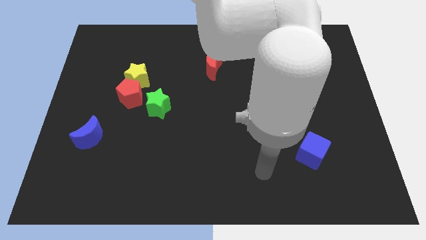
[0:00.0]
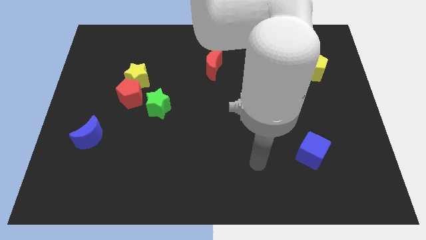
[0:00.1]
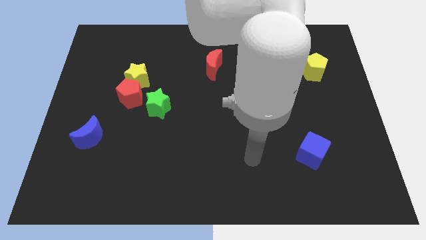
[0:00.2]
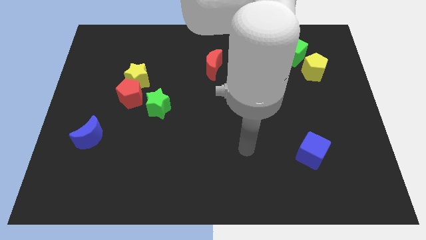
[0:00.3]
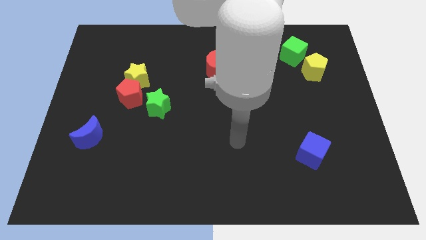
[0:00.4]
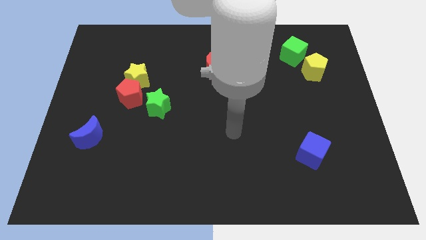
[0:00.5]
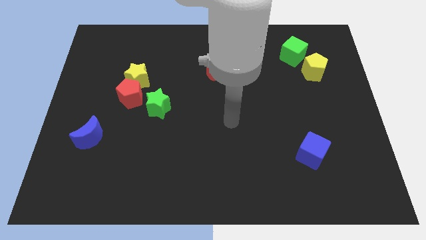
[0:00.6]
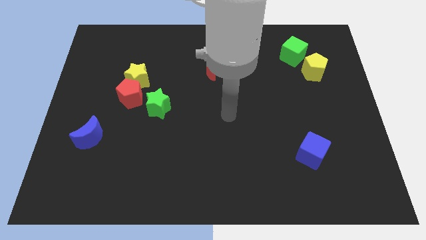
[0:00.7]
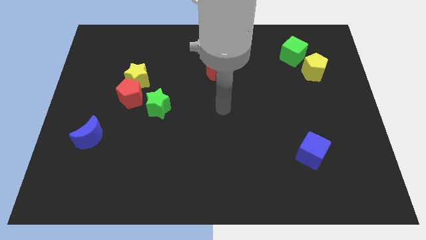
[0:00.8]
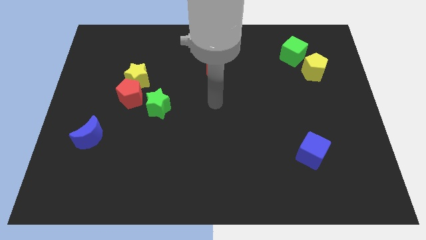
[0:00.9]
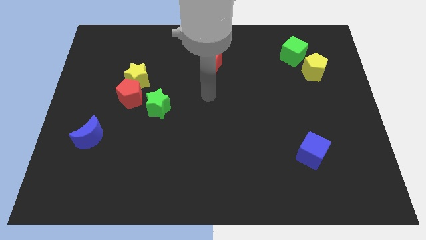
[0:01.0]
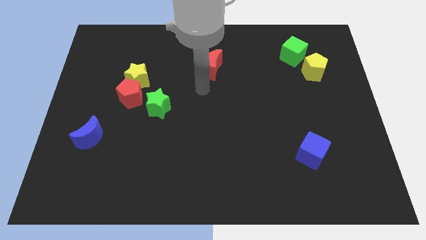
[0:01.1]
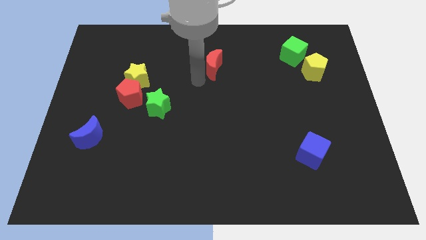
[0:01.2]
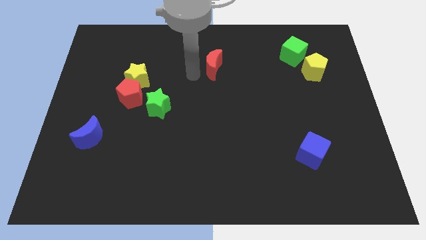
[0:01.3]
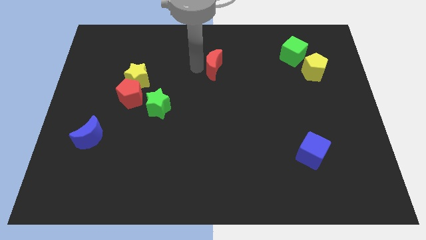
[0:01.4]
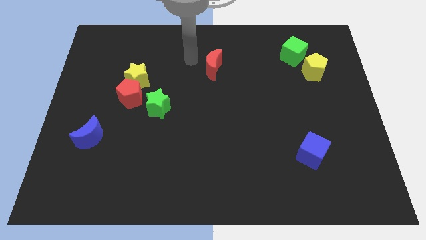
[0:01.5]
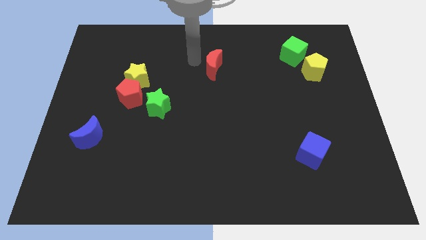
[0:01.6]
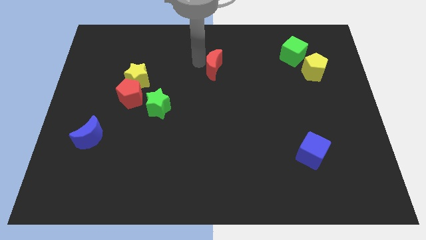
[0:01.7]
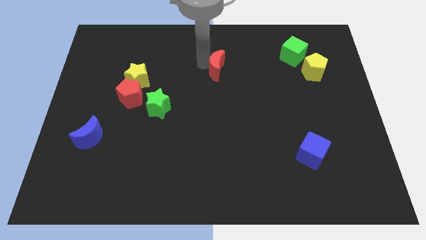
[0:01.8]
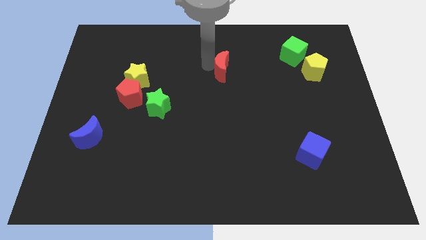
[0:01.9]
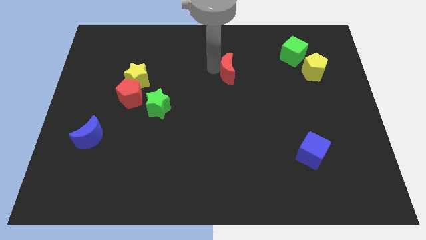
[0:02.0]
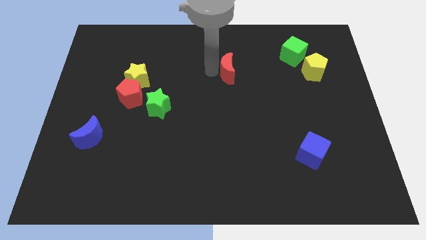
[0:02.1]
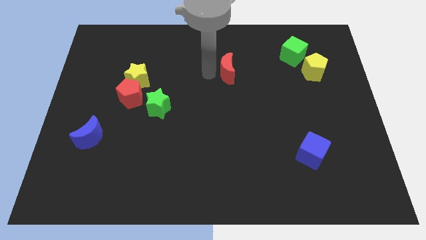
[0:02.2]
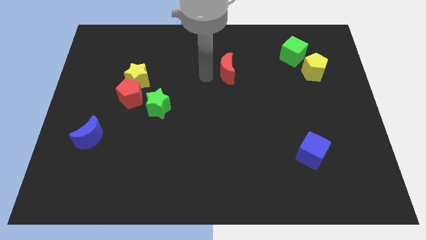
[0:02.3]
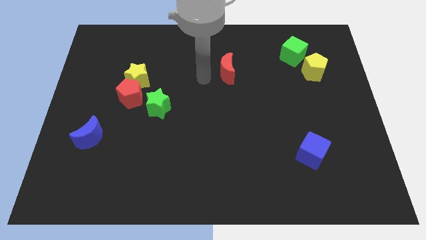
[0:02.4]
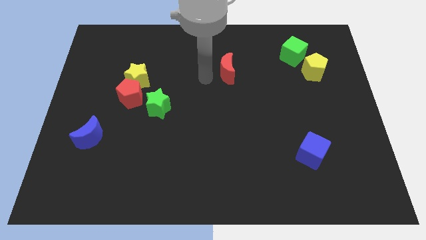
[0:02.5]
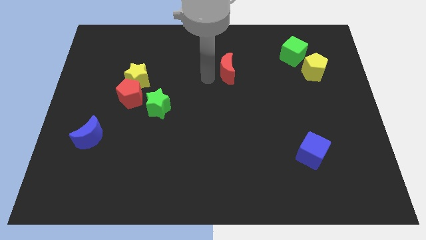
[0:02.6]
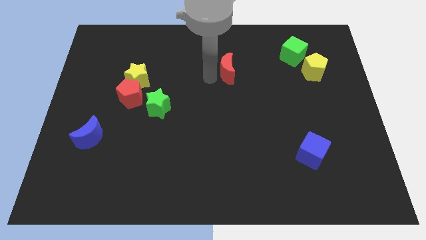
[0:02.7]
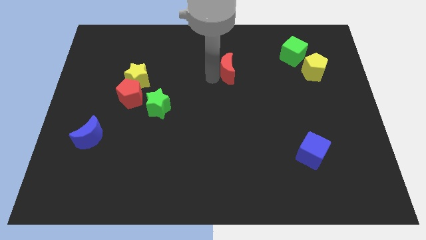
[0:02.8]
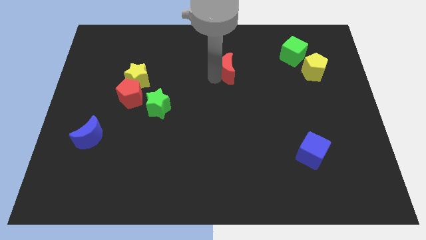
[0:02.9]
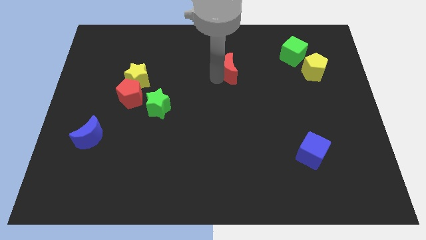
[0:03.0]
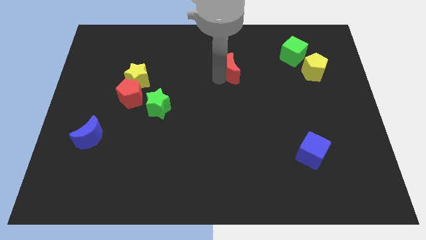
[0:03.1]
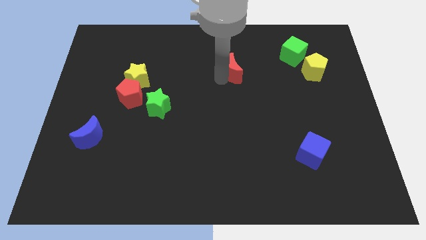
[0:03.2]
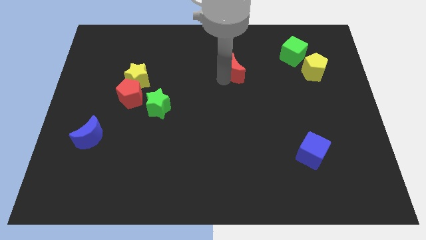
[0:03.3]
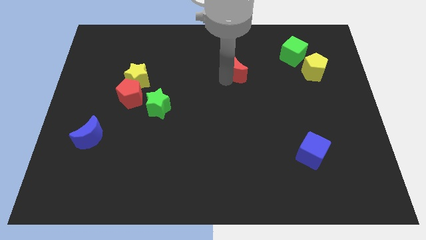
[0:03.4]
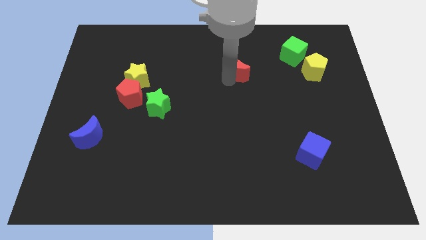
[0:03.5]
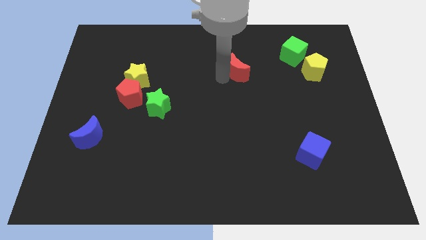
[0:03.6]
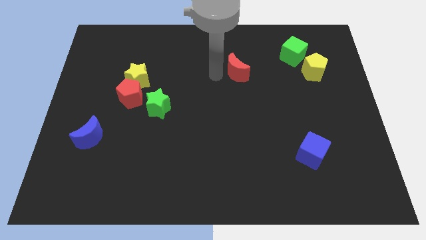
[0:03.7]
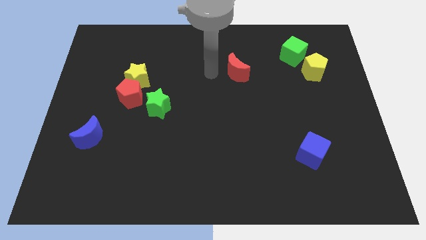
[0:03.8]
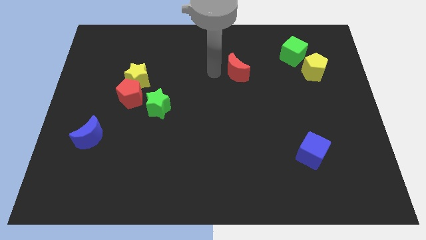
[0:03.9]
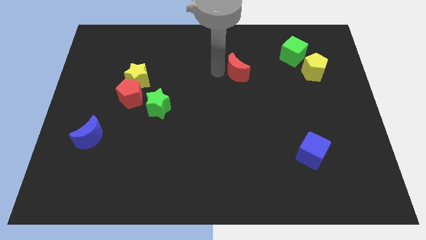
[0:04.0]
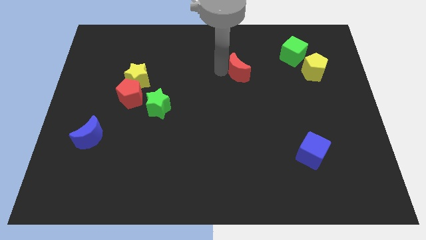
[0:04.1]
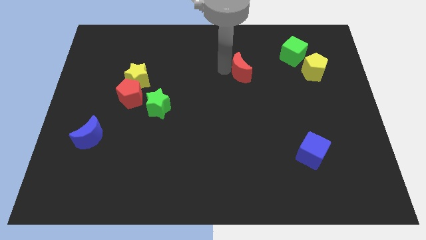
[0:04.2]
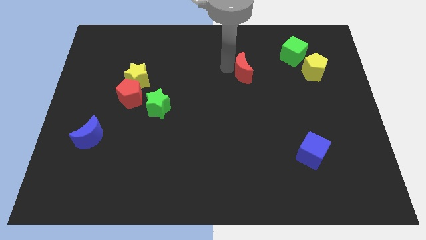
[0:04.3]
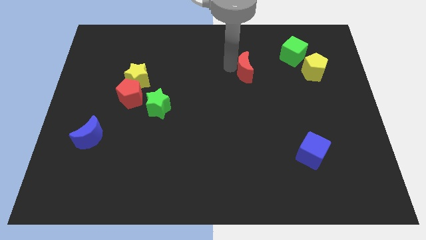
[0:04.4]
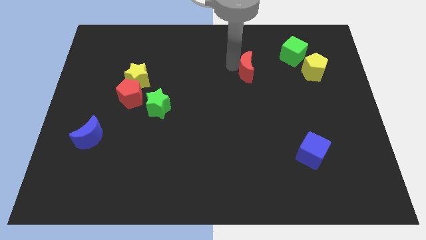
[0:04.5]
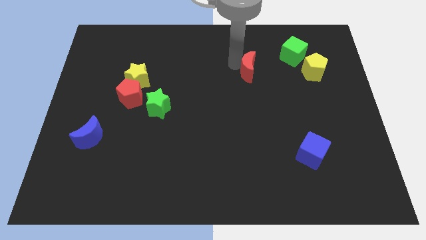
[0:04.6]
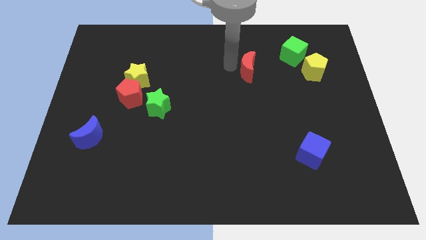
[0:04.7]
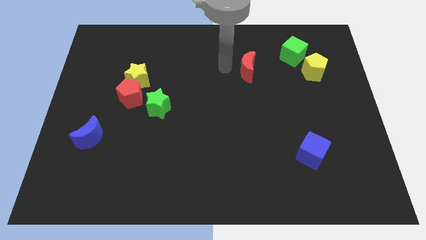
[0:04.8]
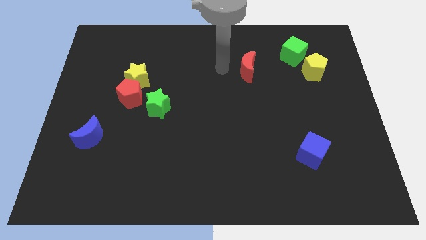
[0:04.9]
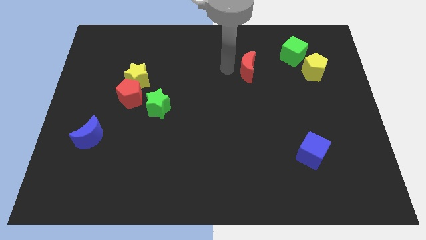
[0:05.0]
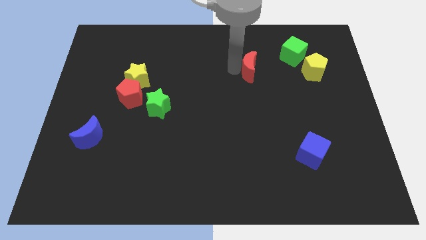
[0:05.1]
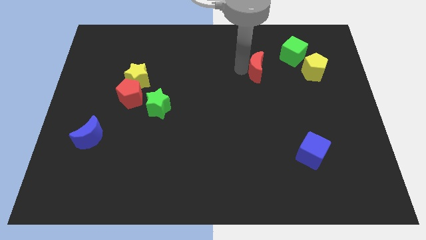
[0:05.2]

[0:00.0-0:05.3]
put the red moon left of the yellow pentagon

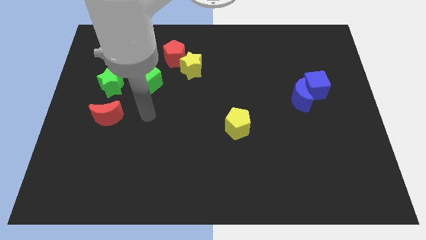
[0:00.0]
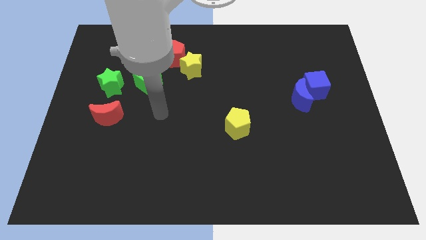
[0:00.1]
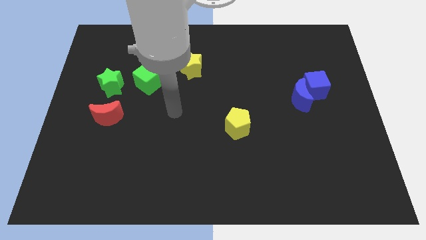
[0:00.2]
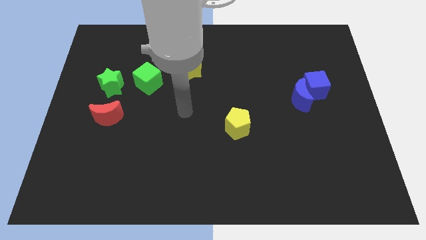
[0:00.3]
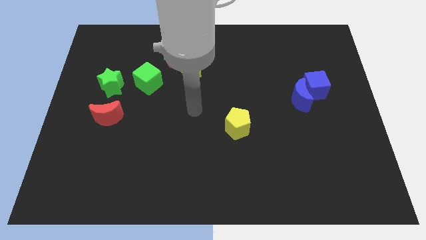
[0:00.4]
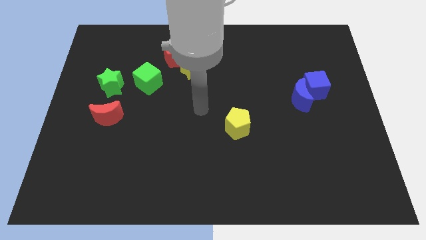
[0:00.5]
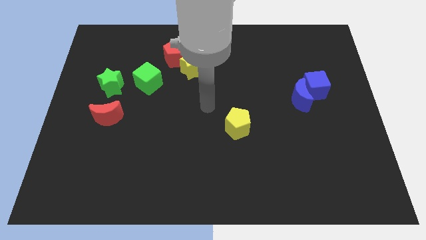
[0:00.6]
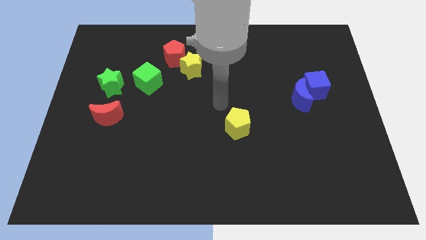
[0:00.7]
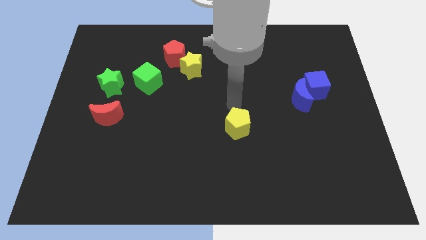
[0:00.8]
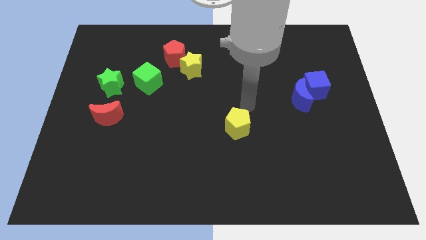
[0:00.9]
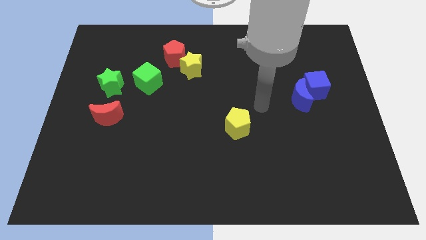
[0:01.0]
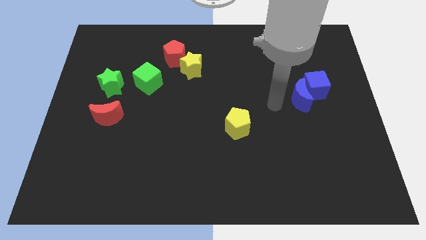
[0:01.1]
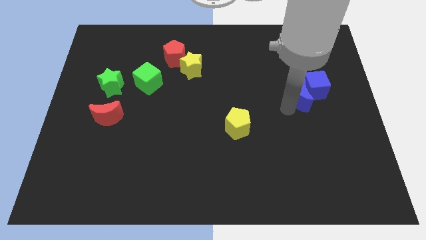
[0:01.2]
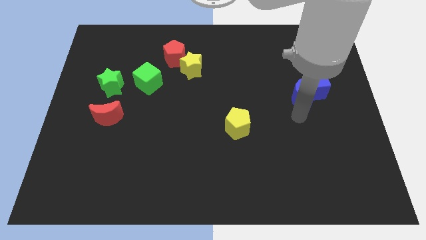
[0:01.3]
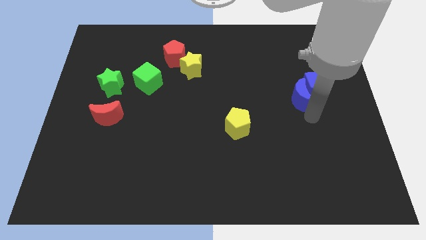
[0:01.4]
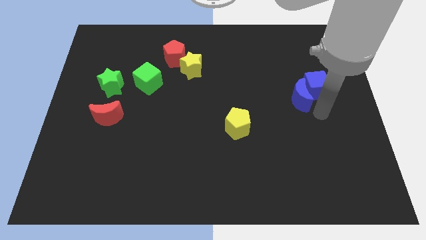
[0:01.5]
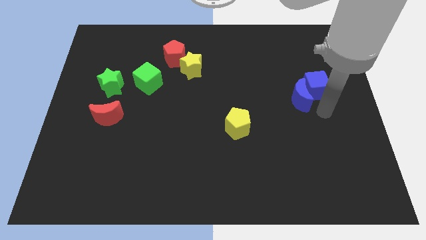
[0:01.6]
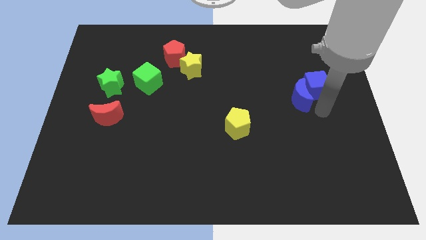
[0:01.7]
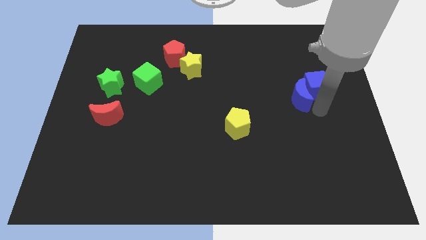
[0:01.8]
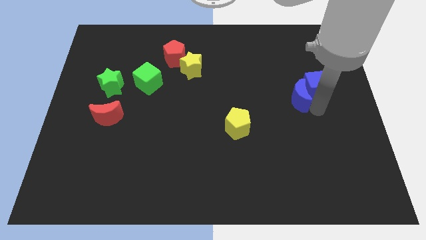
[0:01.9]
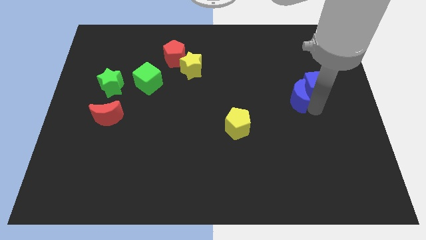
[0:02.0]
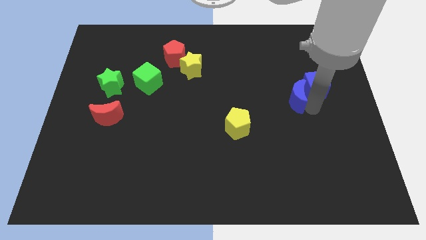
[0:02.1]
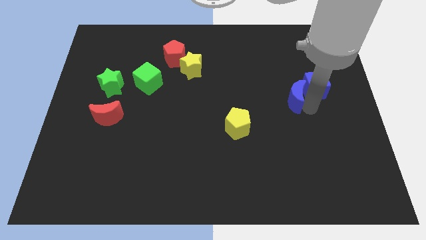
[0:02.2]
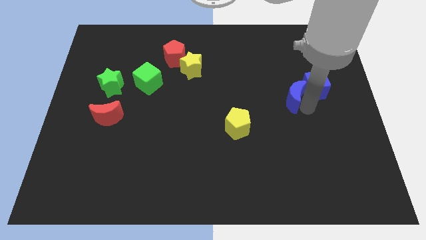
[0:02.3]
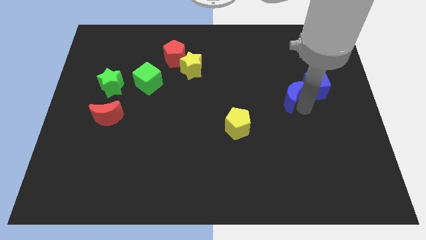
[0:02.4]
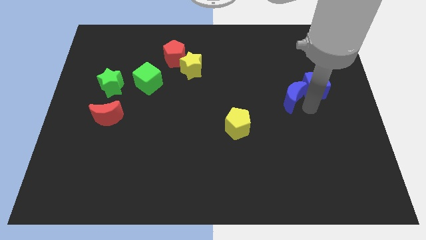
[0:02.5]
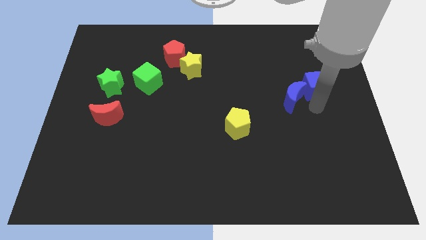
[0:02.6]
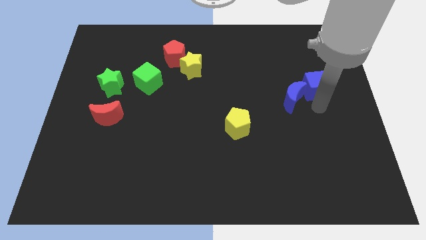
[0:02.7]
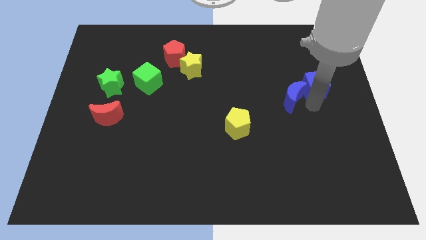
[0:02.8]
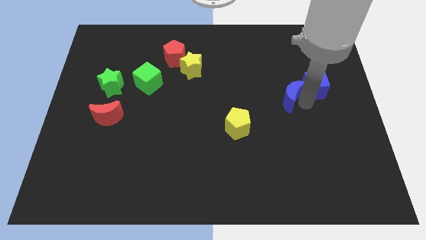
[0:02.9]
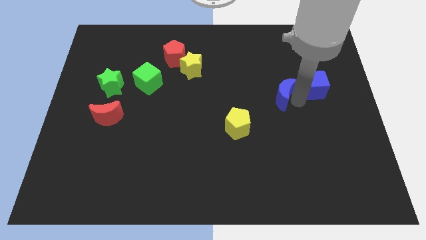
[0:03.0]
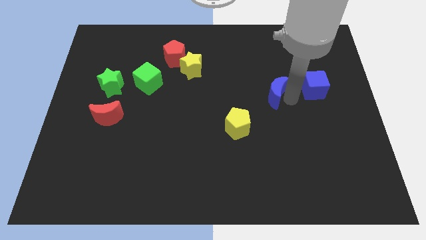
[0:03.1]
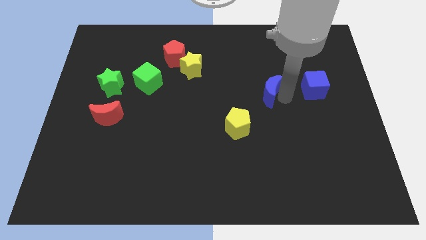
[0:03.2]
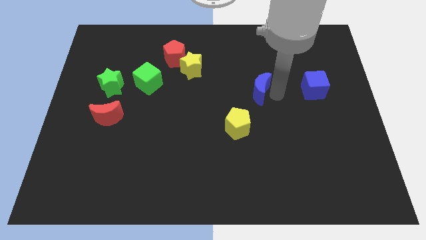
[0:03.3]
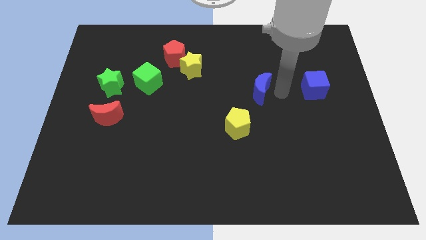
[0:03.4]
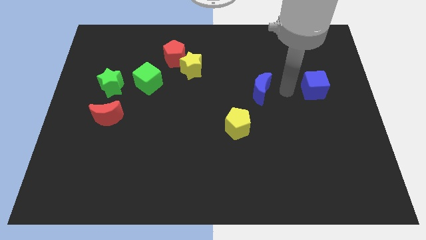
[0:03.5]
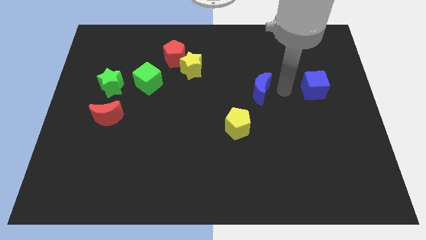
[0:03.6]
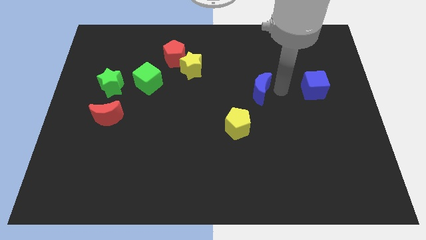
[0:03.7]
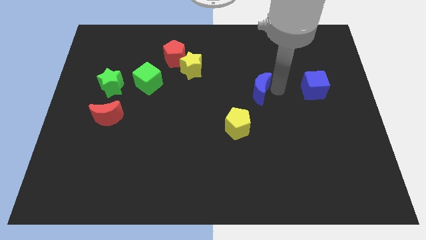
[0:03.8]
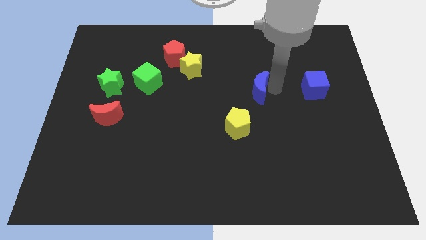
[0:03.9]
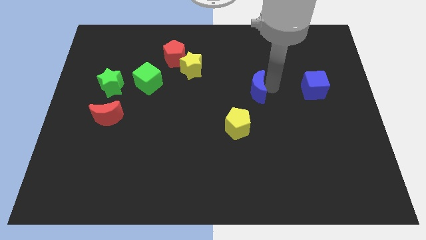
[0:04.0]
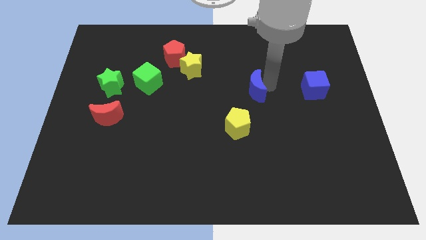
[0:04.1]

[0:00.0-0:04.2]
put the blue moon to the top side of the yellow pentagon
